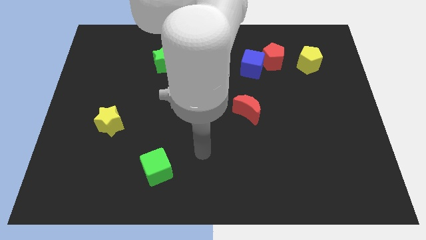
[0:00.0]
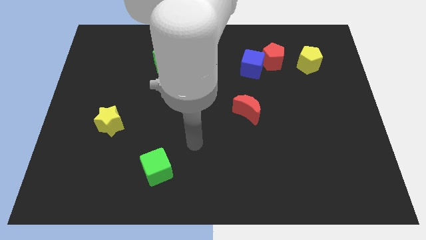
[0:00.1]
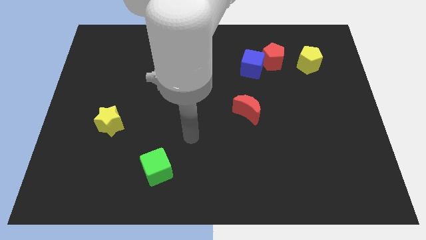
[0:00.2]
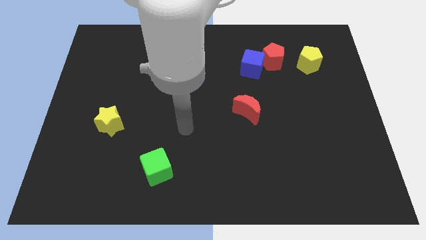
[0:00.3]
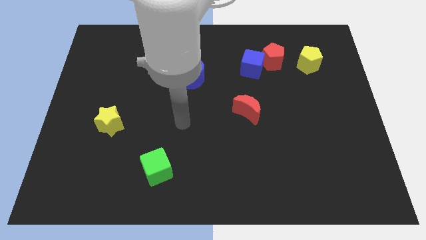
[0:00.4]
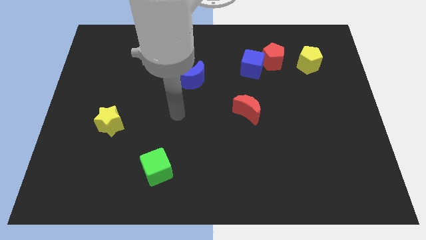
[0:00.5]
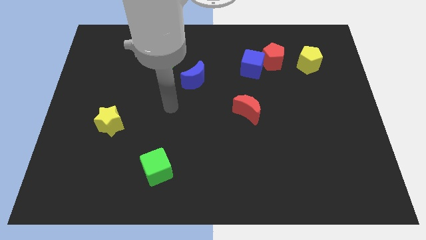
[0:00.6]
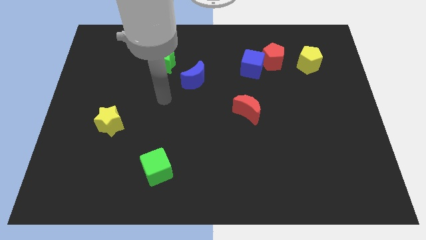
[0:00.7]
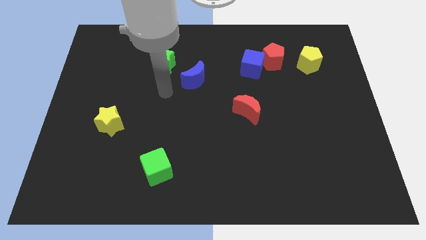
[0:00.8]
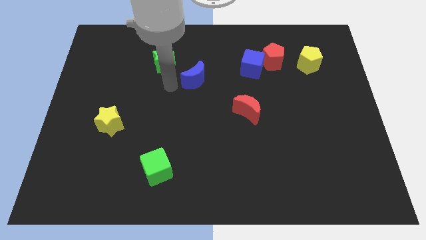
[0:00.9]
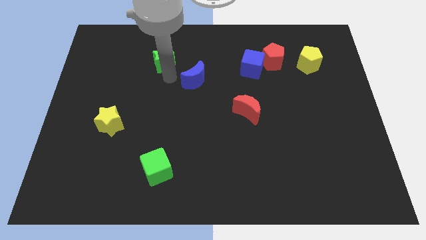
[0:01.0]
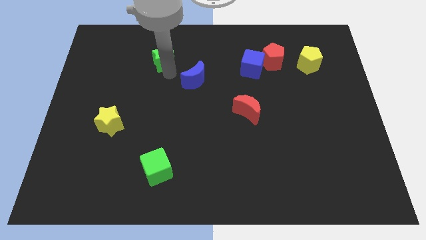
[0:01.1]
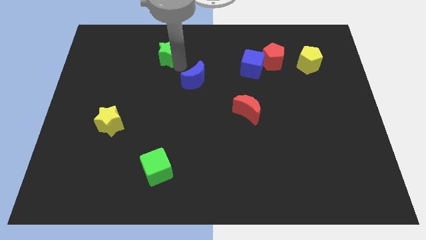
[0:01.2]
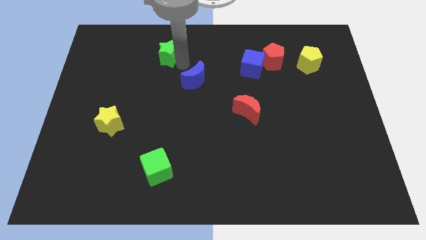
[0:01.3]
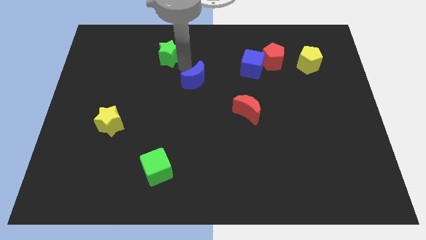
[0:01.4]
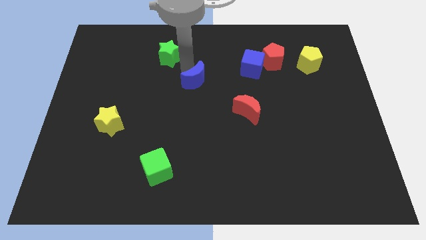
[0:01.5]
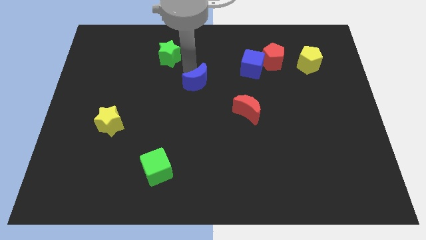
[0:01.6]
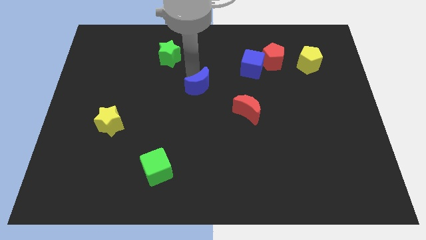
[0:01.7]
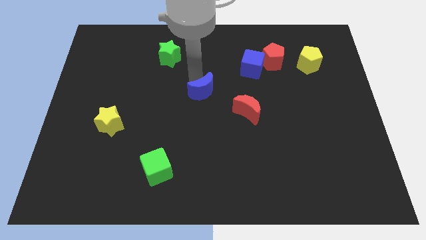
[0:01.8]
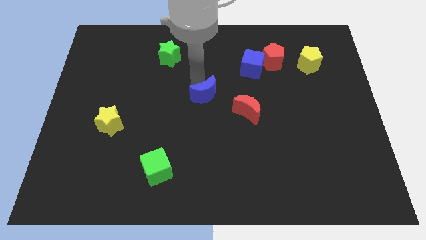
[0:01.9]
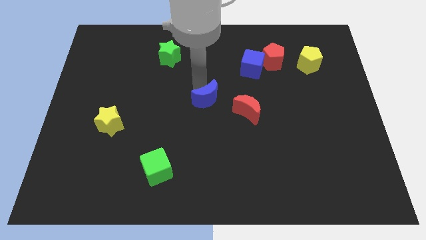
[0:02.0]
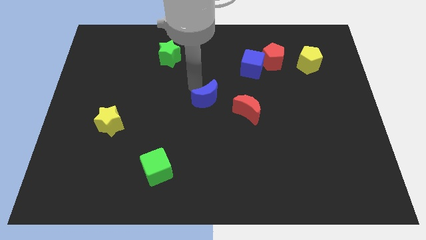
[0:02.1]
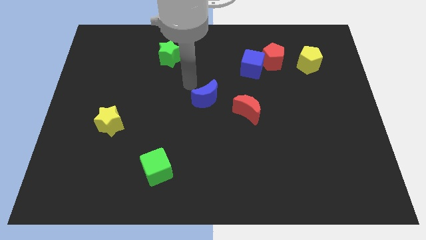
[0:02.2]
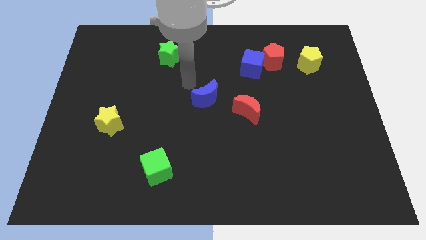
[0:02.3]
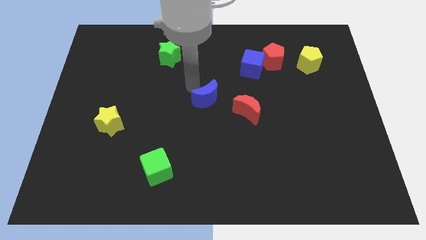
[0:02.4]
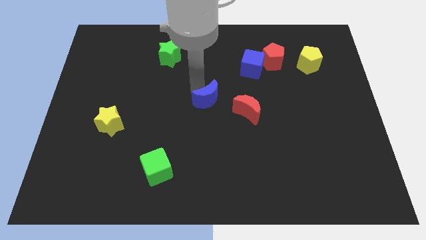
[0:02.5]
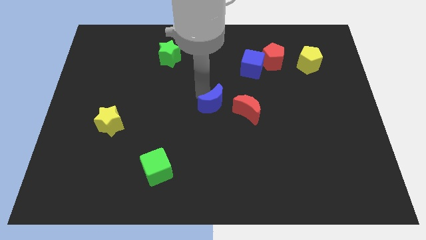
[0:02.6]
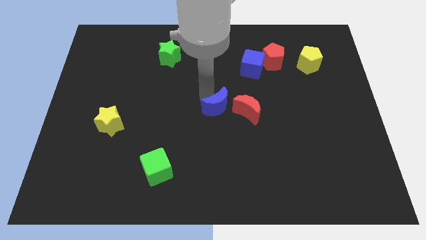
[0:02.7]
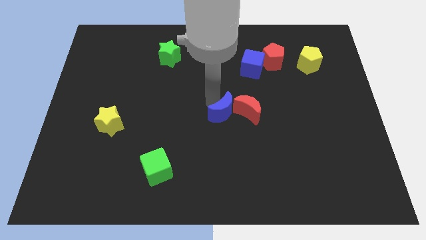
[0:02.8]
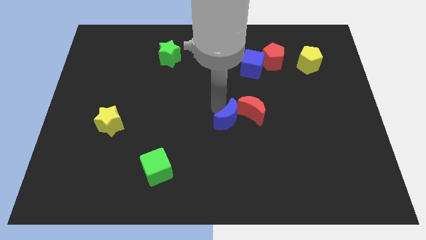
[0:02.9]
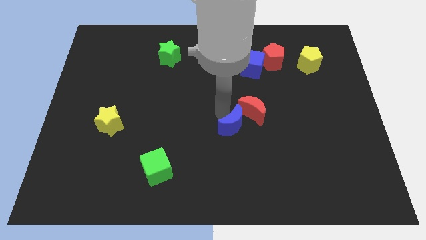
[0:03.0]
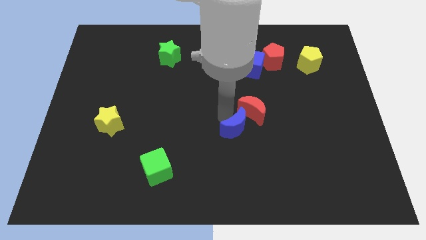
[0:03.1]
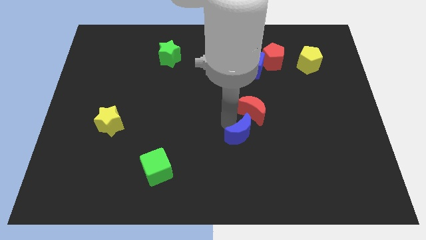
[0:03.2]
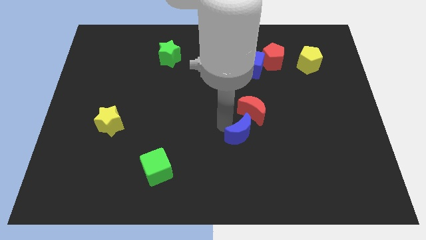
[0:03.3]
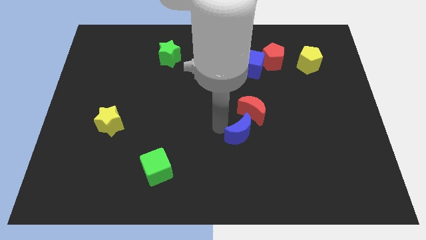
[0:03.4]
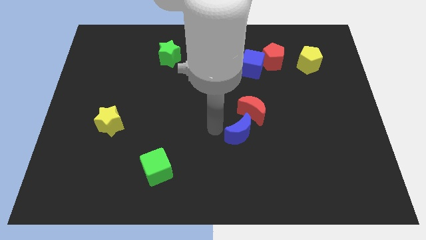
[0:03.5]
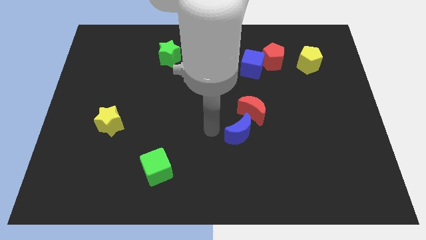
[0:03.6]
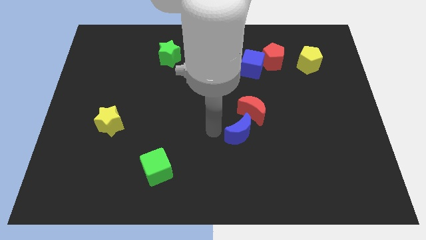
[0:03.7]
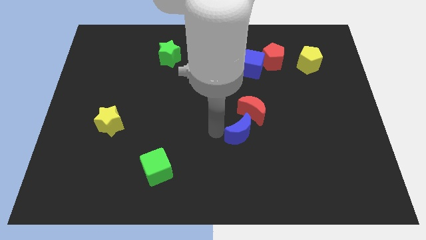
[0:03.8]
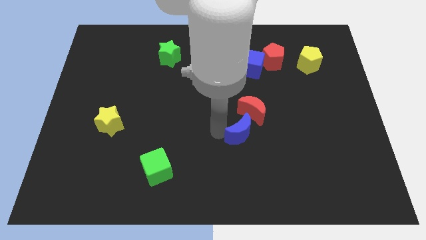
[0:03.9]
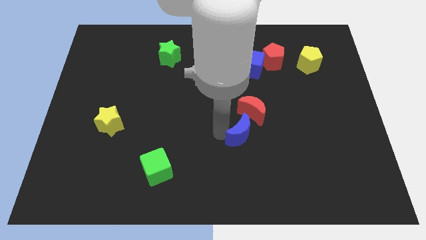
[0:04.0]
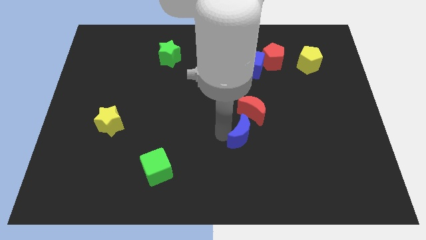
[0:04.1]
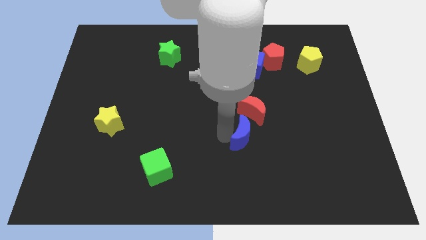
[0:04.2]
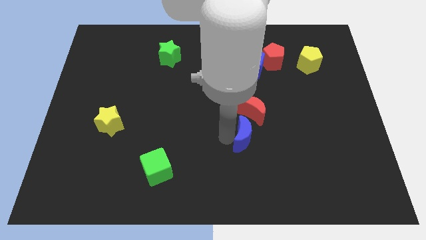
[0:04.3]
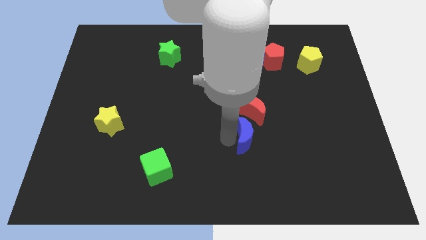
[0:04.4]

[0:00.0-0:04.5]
push the blue moon diagonally down and to the right

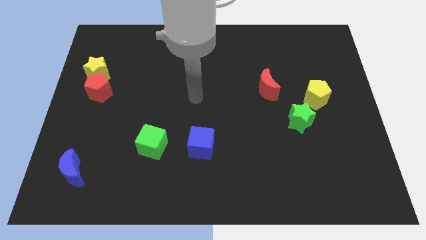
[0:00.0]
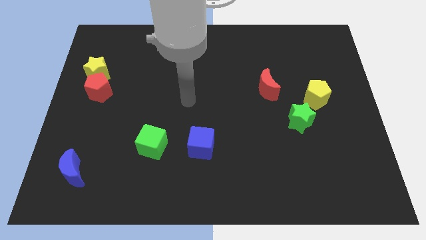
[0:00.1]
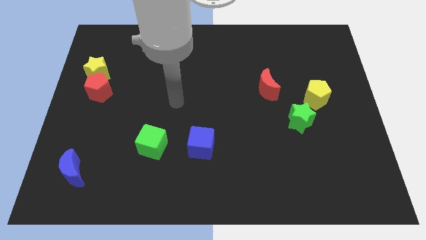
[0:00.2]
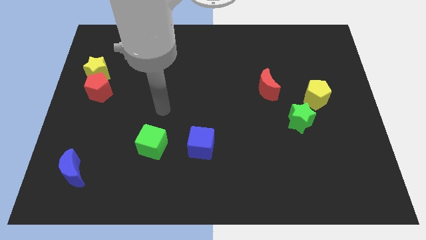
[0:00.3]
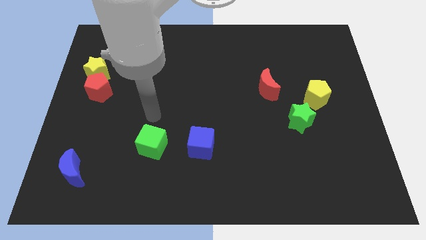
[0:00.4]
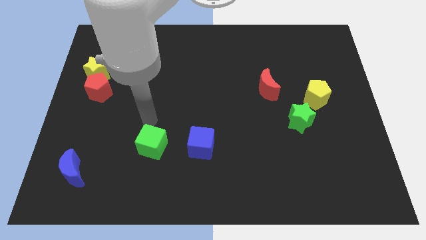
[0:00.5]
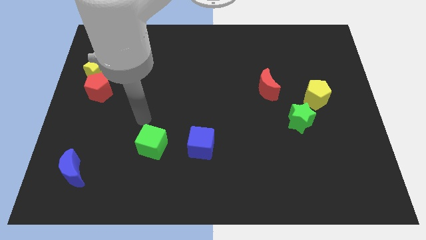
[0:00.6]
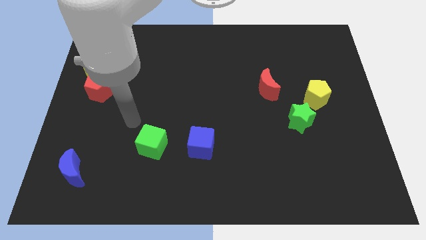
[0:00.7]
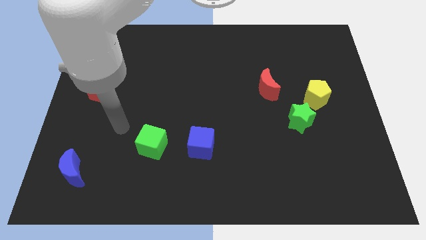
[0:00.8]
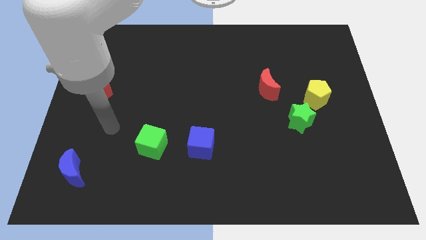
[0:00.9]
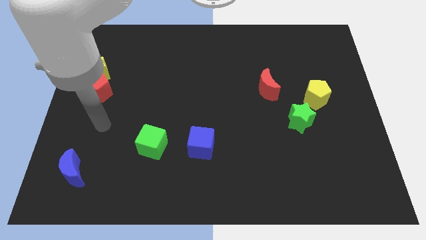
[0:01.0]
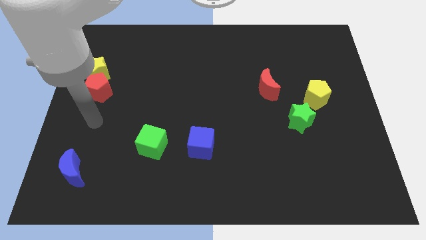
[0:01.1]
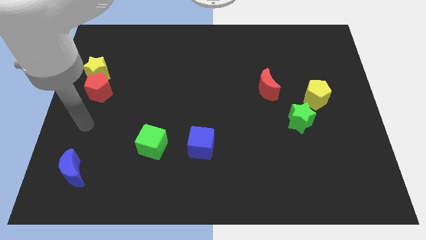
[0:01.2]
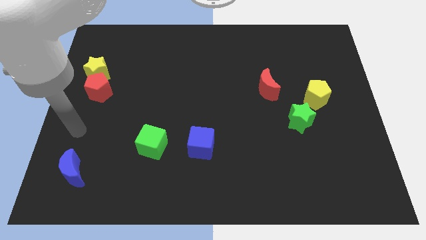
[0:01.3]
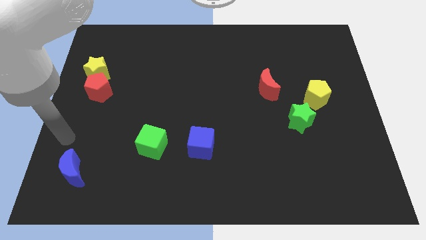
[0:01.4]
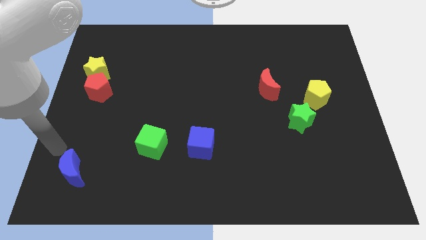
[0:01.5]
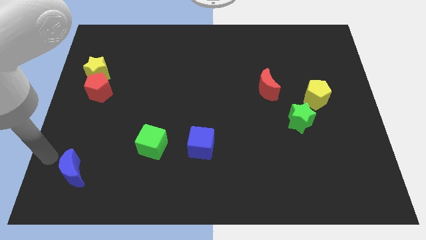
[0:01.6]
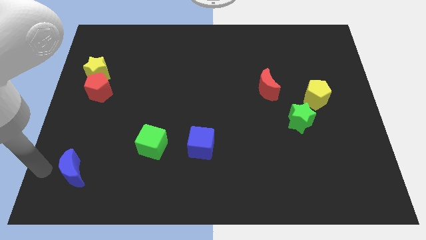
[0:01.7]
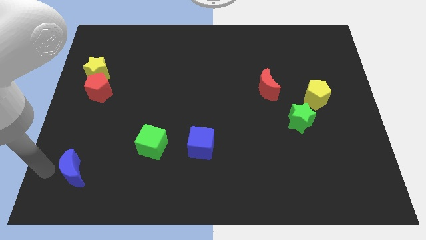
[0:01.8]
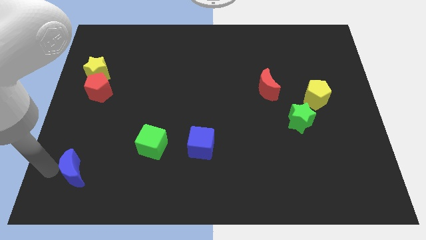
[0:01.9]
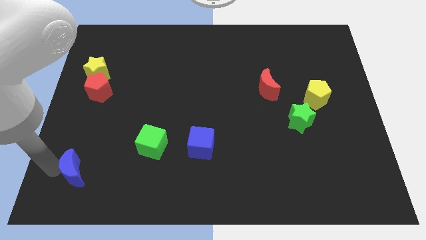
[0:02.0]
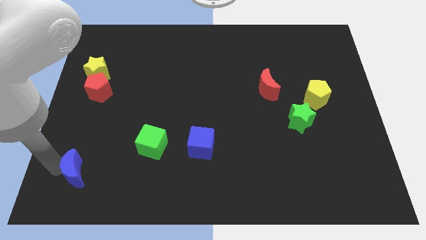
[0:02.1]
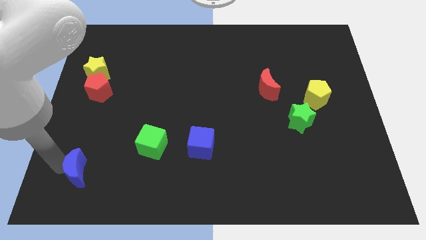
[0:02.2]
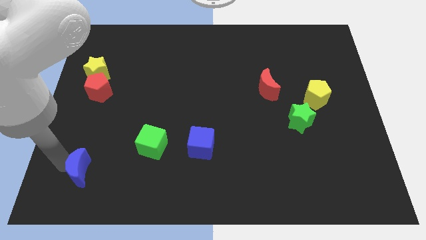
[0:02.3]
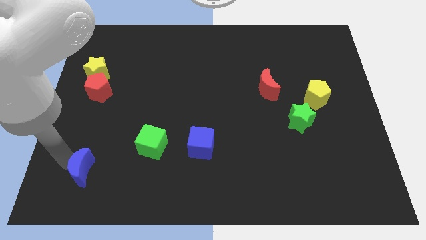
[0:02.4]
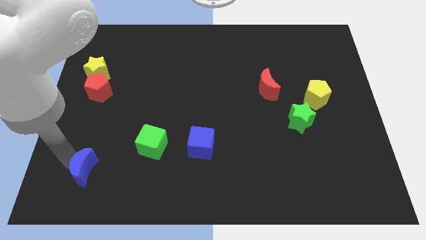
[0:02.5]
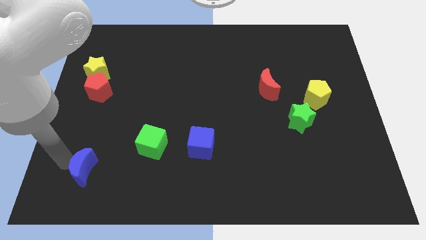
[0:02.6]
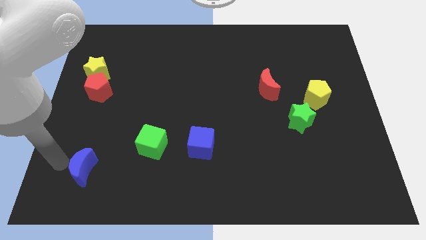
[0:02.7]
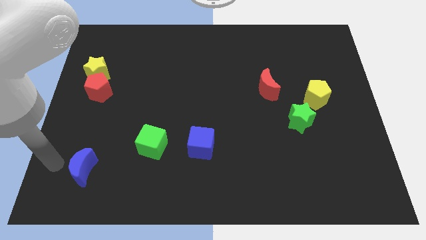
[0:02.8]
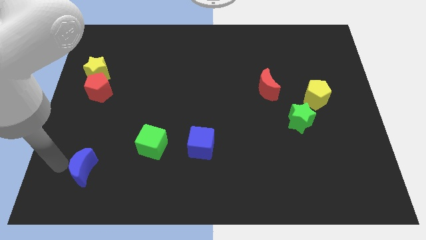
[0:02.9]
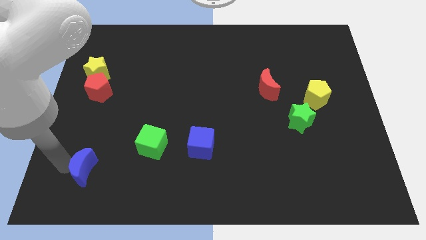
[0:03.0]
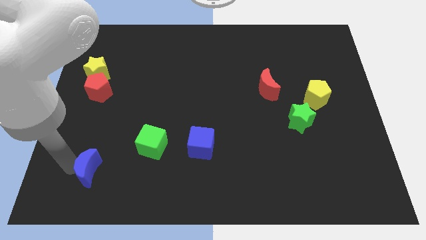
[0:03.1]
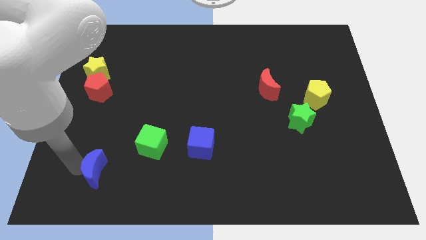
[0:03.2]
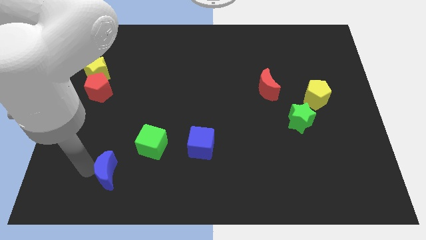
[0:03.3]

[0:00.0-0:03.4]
slightly push the blue moon to the right

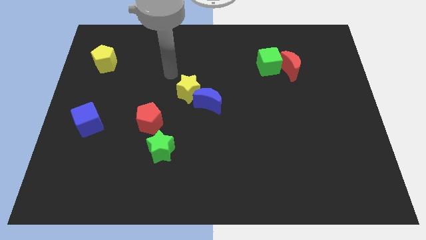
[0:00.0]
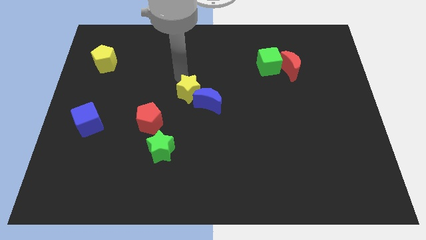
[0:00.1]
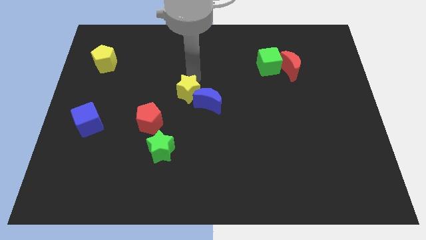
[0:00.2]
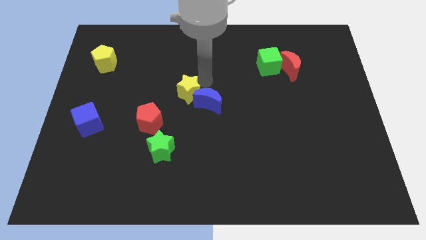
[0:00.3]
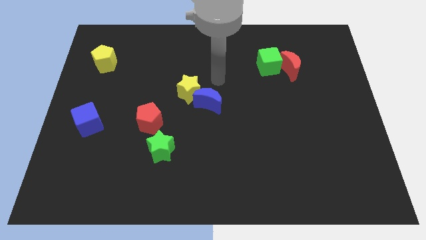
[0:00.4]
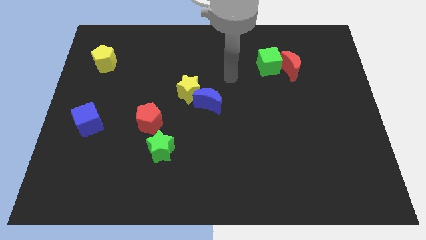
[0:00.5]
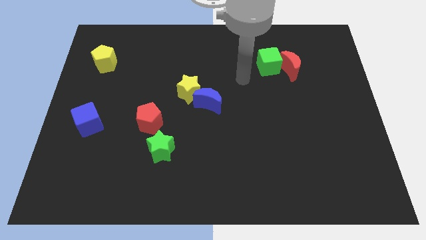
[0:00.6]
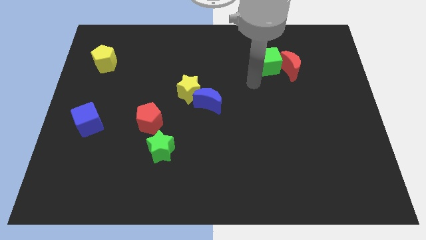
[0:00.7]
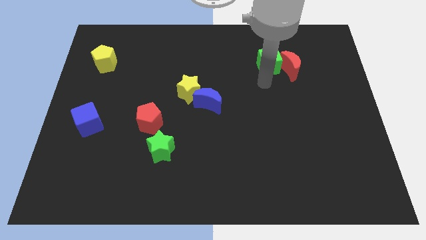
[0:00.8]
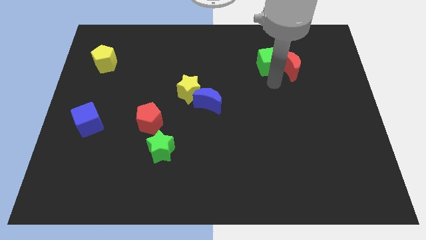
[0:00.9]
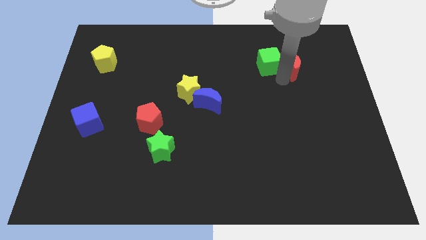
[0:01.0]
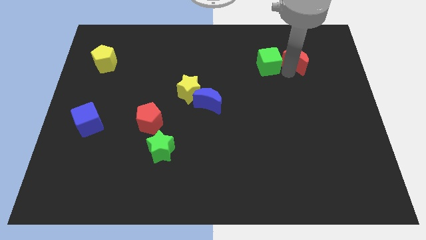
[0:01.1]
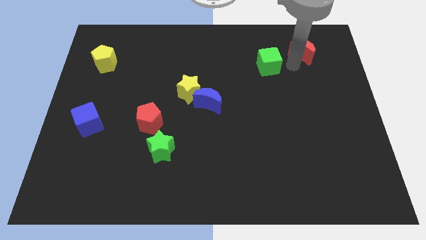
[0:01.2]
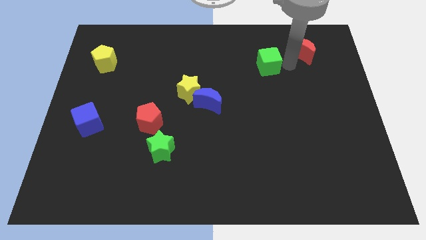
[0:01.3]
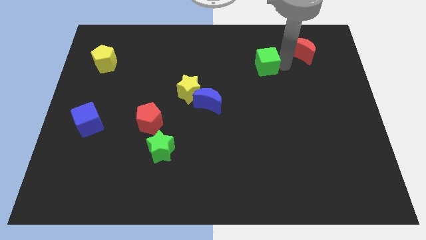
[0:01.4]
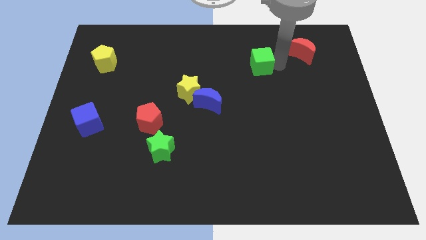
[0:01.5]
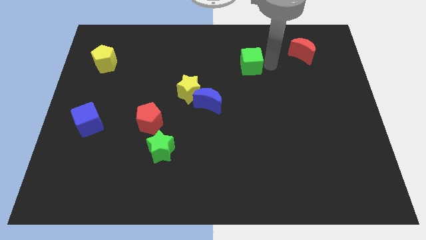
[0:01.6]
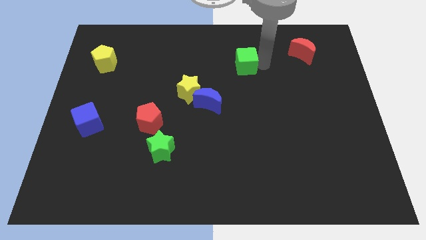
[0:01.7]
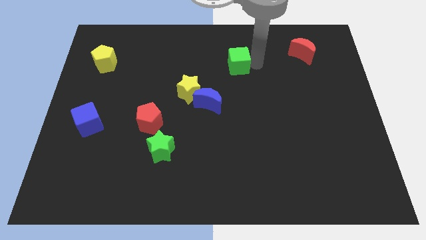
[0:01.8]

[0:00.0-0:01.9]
slightly move the green cube left
